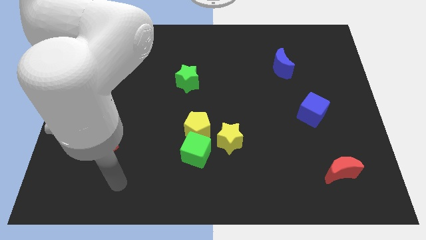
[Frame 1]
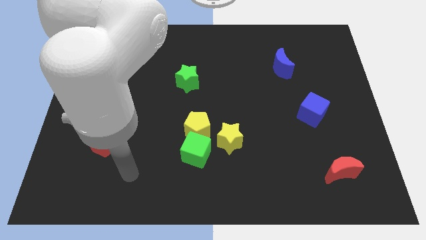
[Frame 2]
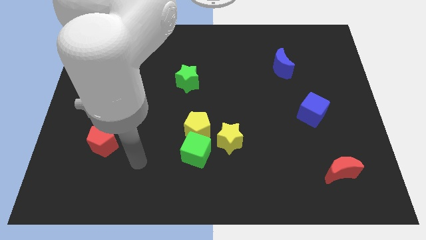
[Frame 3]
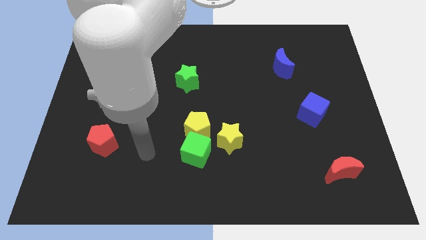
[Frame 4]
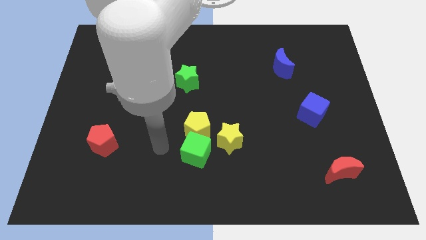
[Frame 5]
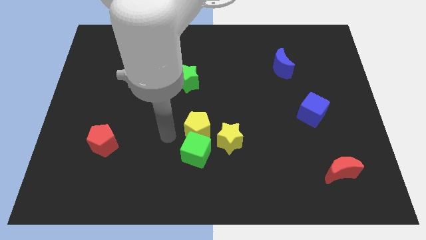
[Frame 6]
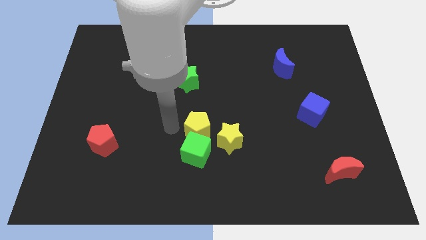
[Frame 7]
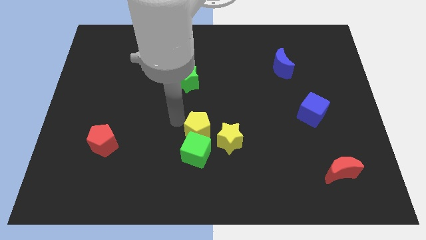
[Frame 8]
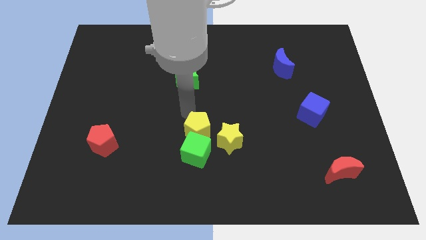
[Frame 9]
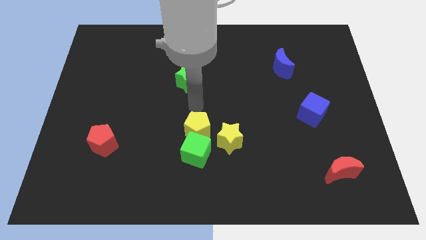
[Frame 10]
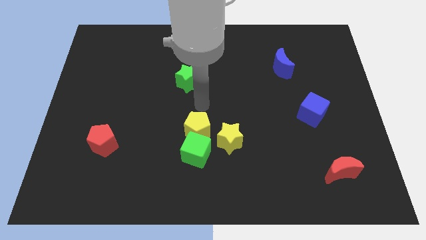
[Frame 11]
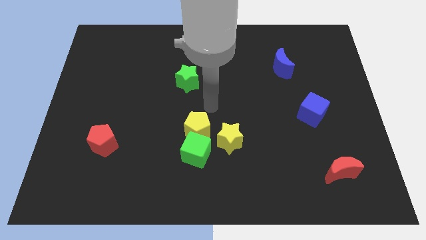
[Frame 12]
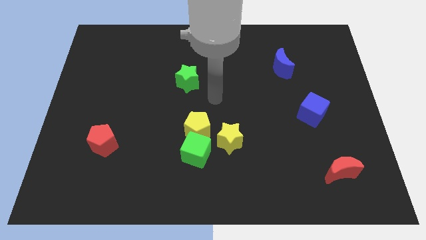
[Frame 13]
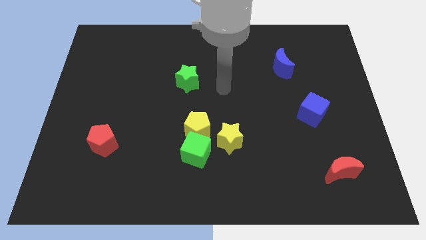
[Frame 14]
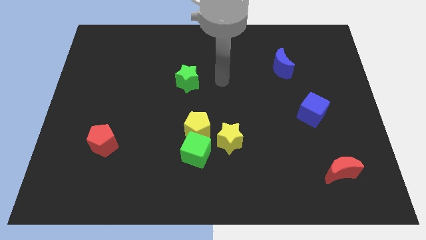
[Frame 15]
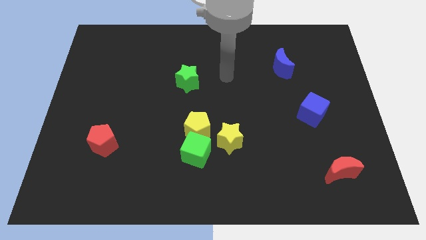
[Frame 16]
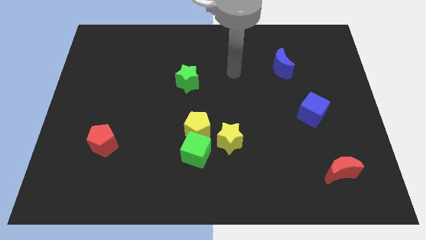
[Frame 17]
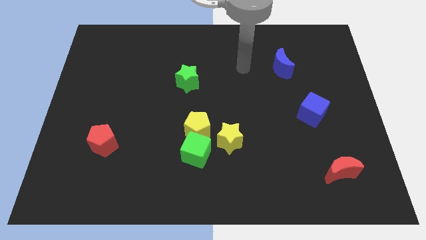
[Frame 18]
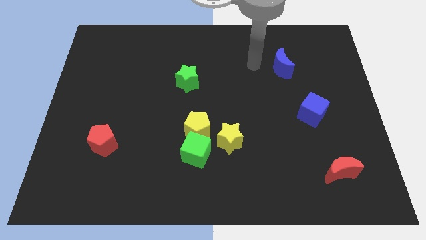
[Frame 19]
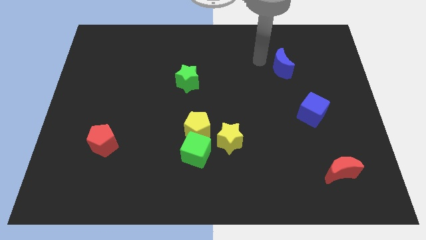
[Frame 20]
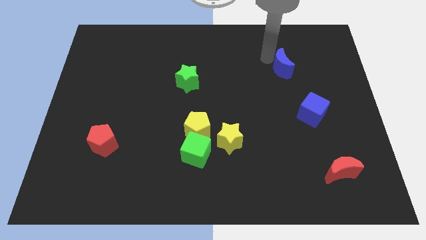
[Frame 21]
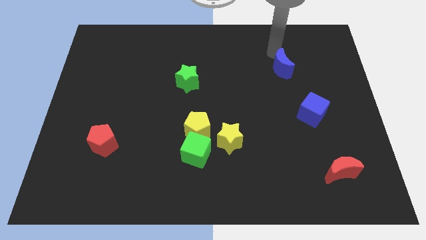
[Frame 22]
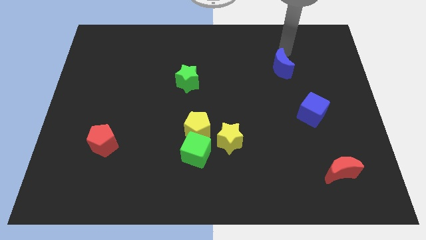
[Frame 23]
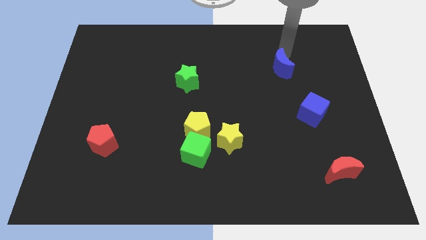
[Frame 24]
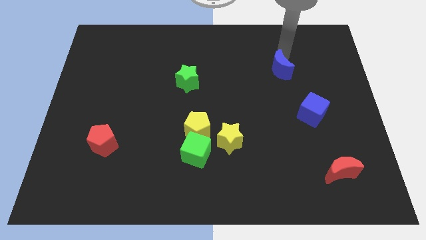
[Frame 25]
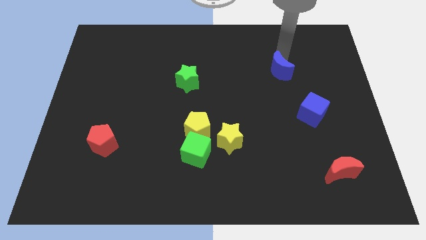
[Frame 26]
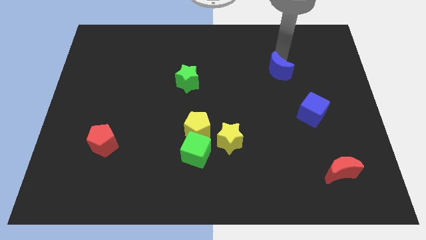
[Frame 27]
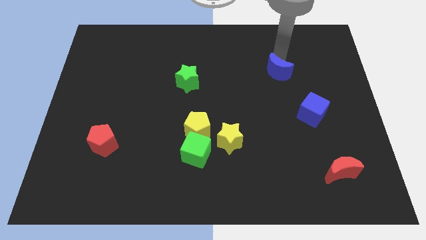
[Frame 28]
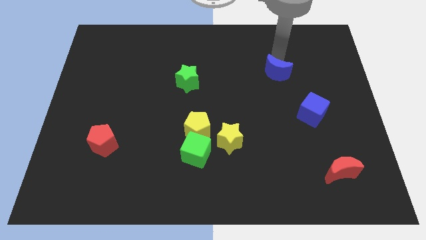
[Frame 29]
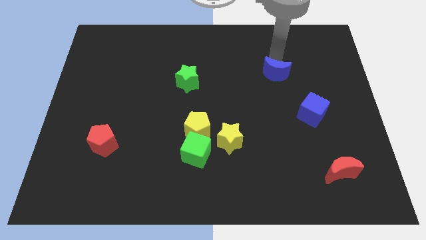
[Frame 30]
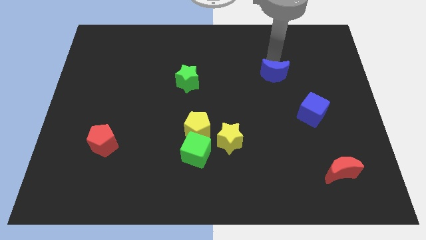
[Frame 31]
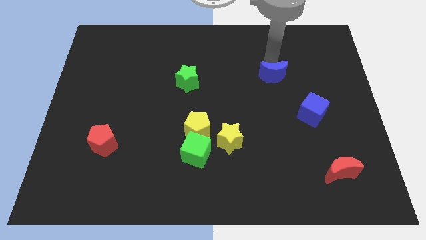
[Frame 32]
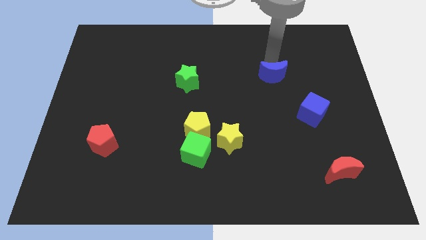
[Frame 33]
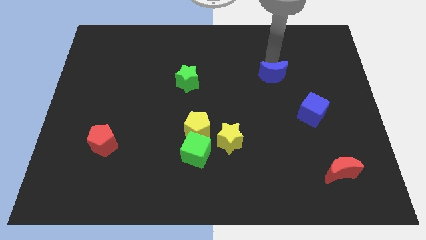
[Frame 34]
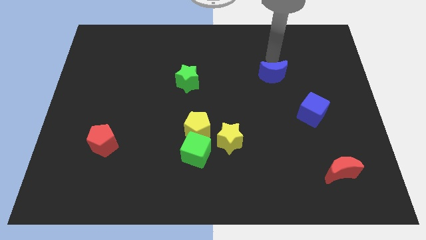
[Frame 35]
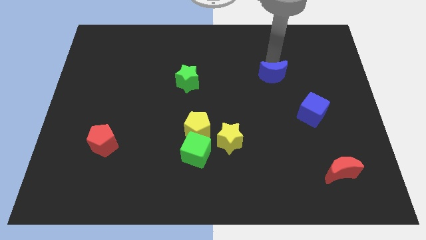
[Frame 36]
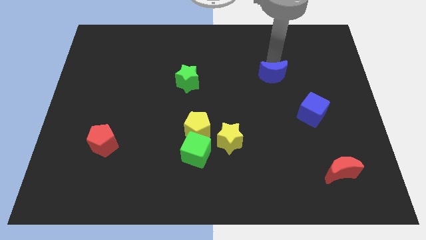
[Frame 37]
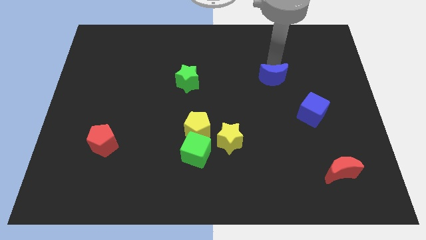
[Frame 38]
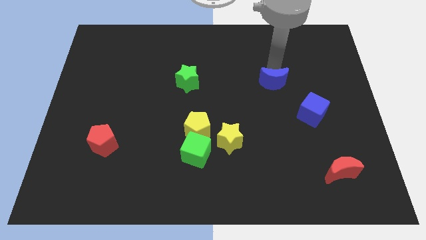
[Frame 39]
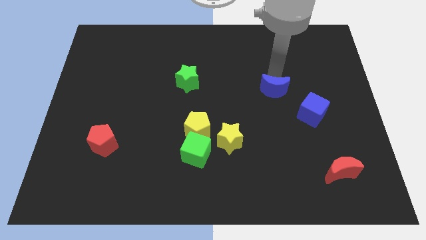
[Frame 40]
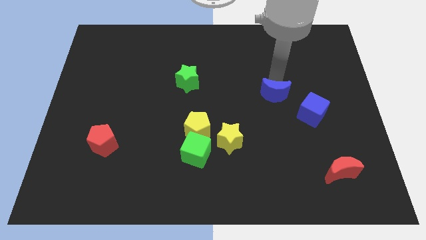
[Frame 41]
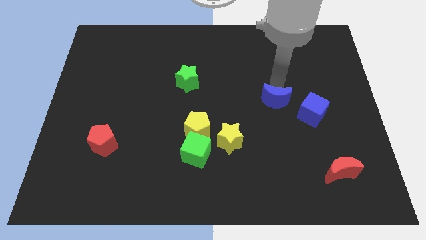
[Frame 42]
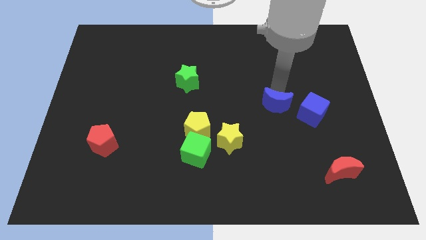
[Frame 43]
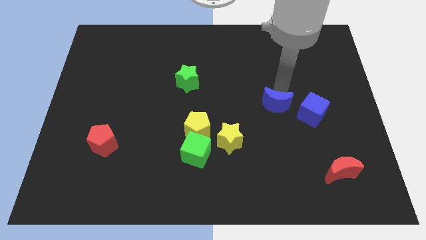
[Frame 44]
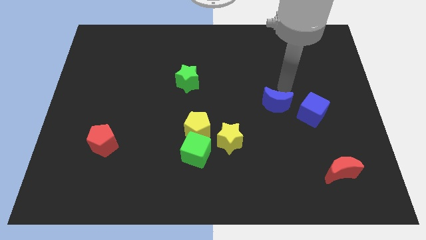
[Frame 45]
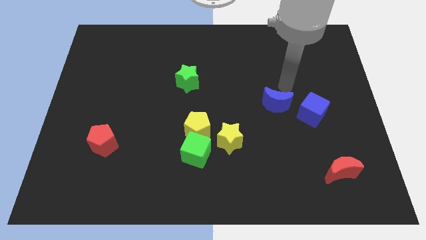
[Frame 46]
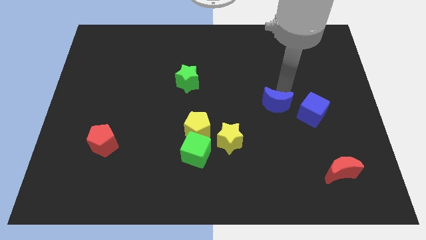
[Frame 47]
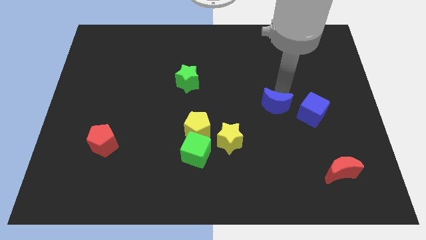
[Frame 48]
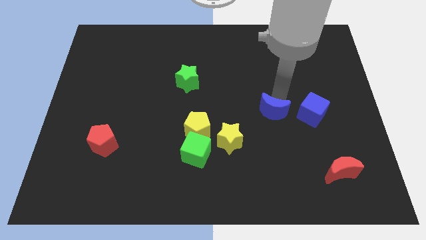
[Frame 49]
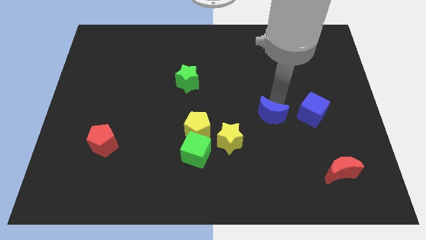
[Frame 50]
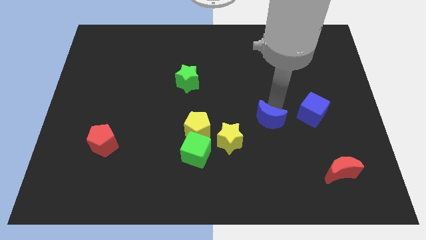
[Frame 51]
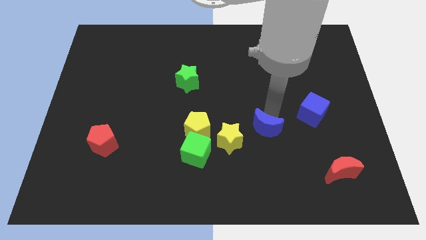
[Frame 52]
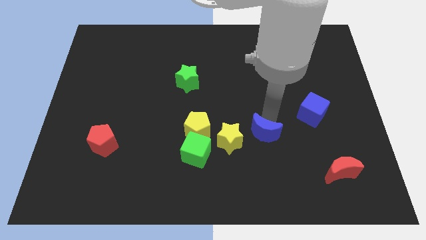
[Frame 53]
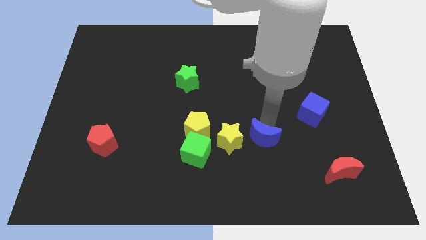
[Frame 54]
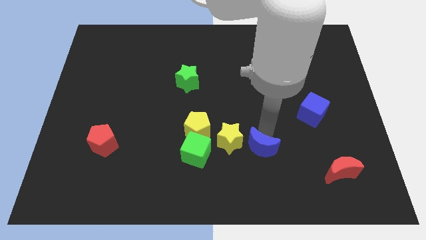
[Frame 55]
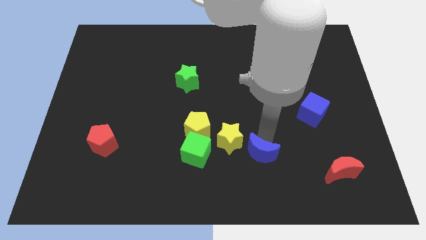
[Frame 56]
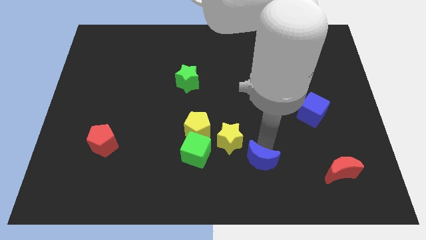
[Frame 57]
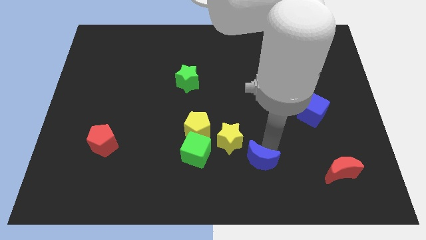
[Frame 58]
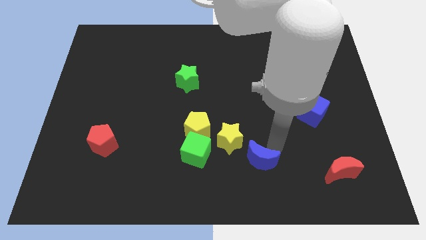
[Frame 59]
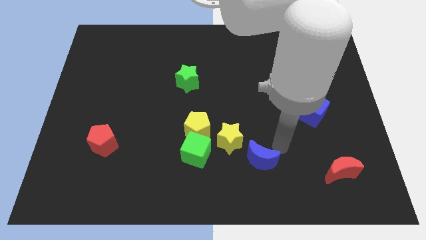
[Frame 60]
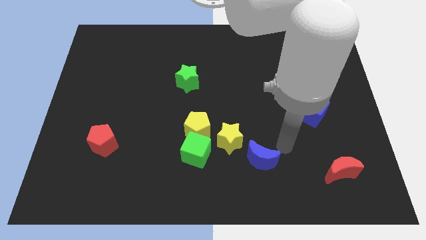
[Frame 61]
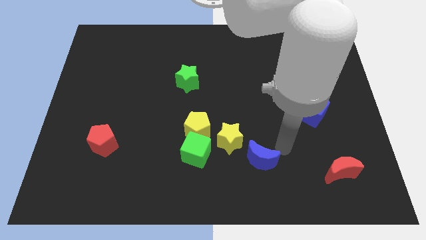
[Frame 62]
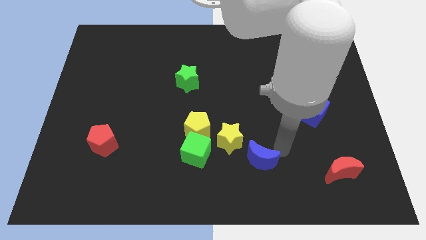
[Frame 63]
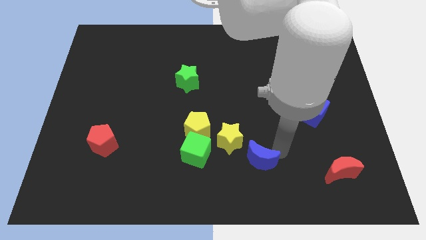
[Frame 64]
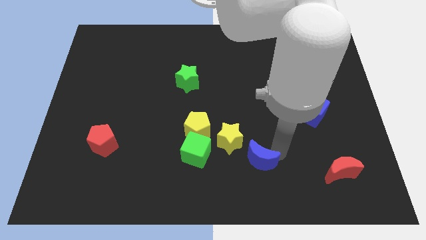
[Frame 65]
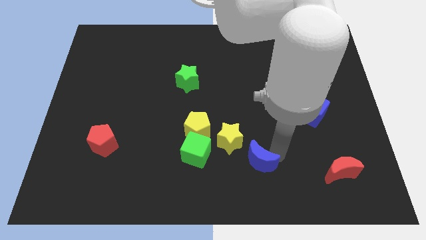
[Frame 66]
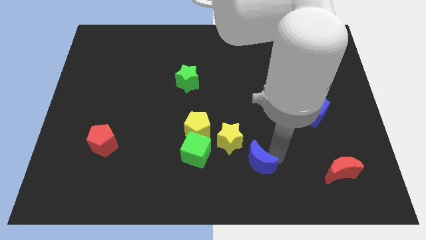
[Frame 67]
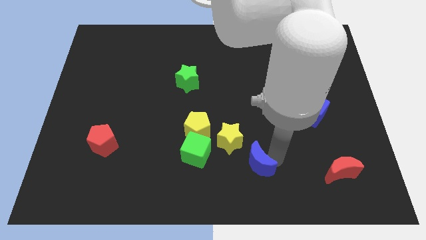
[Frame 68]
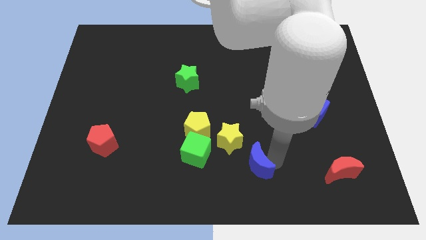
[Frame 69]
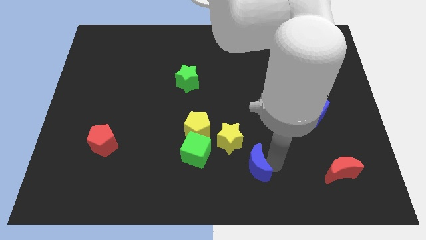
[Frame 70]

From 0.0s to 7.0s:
move the blue moon to the bottom
